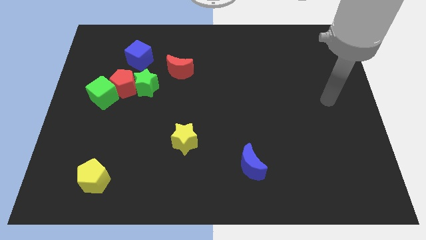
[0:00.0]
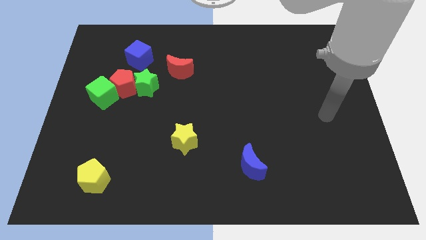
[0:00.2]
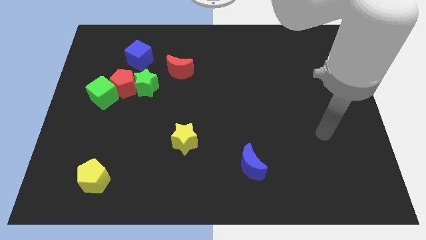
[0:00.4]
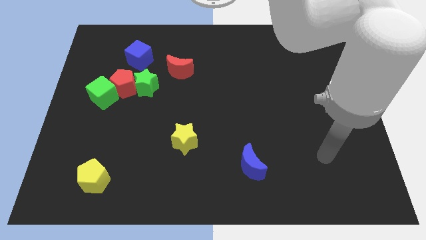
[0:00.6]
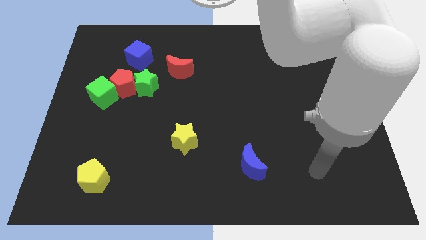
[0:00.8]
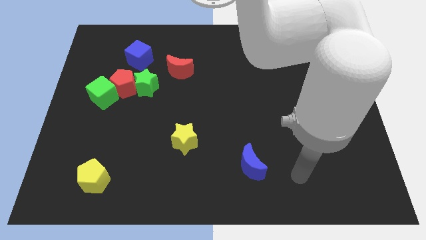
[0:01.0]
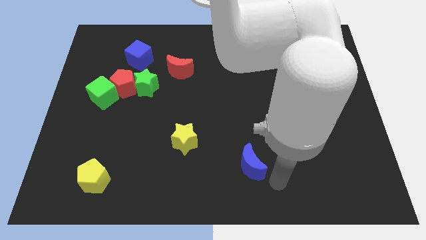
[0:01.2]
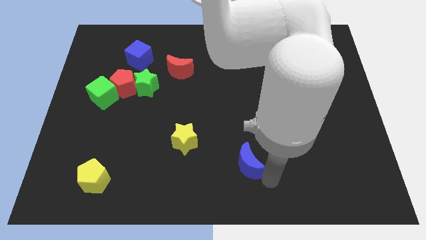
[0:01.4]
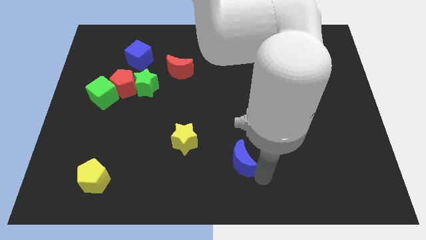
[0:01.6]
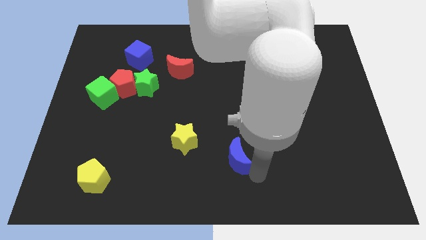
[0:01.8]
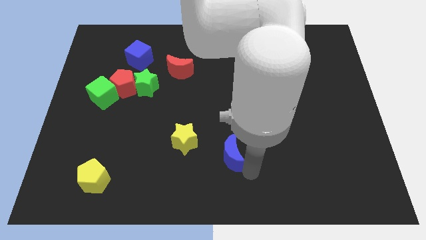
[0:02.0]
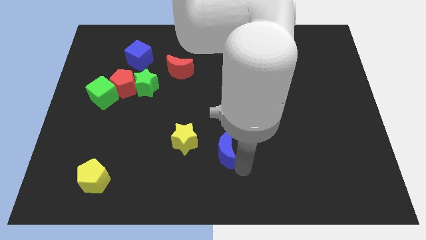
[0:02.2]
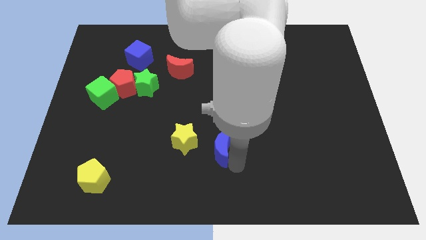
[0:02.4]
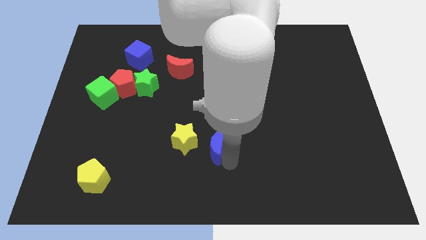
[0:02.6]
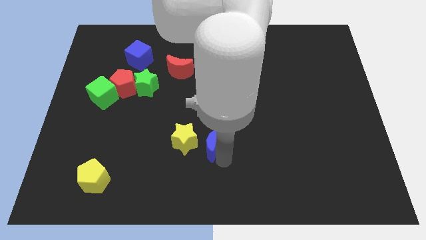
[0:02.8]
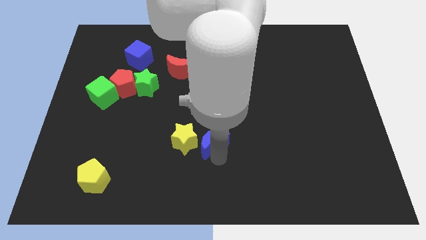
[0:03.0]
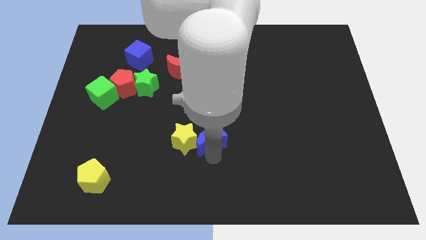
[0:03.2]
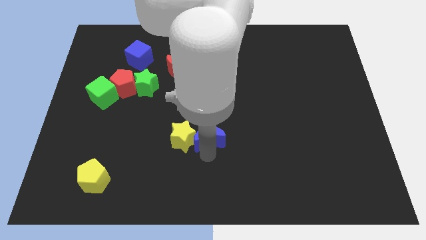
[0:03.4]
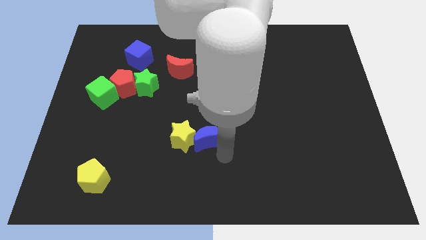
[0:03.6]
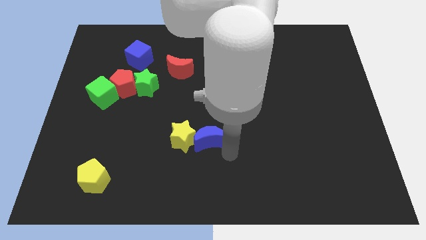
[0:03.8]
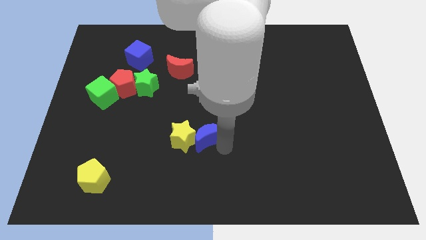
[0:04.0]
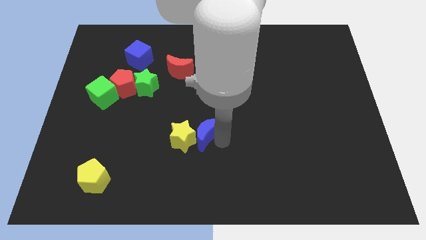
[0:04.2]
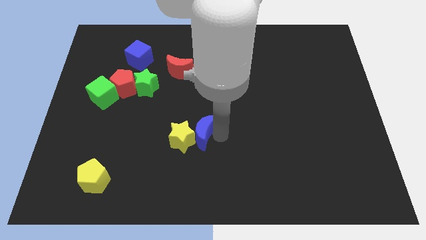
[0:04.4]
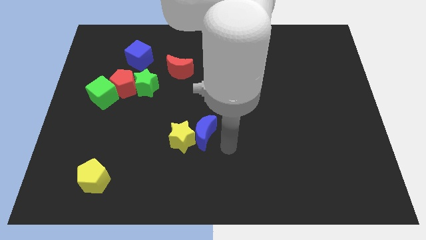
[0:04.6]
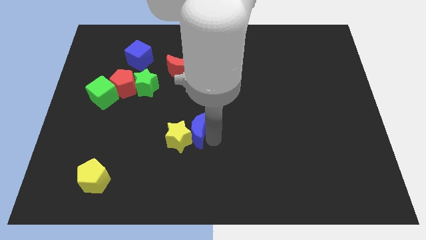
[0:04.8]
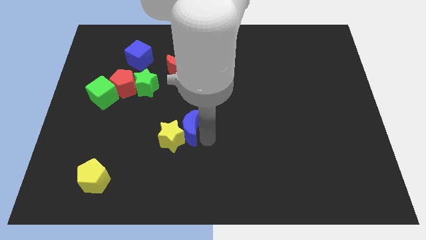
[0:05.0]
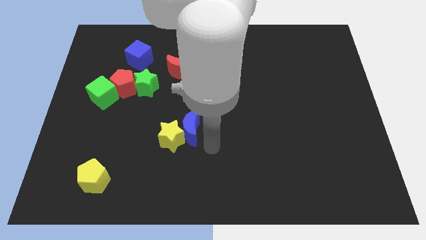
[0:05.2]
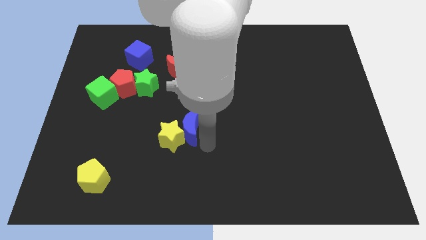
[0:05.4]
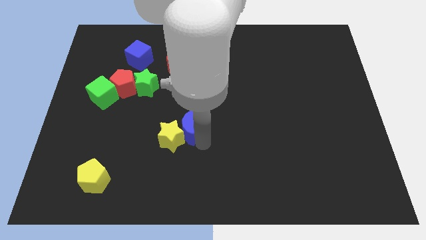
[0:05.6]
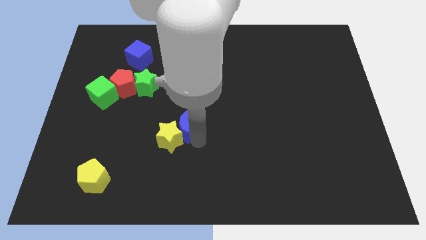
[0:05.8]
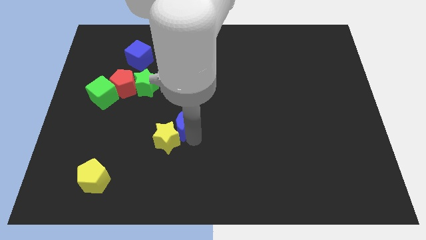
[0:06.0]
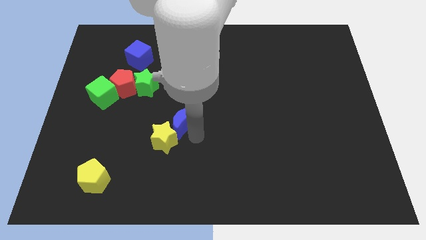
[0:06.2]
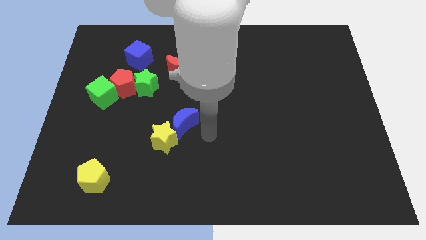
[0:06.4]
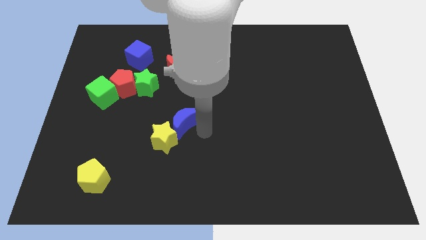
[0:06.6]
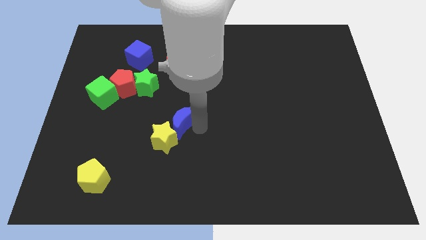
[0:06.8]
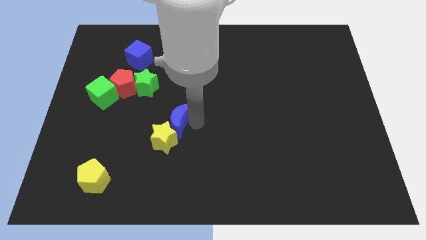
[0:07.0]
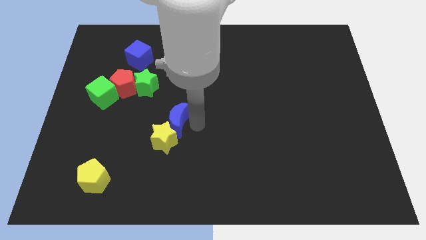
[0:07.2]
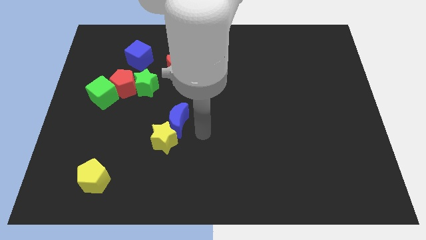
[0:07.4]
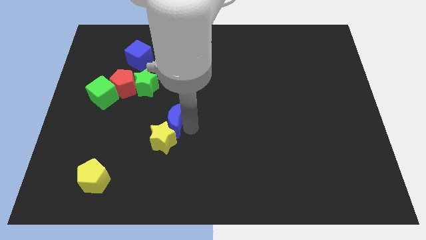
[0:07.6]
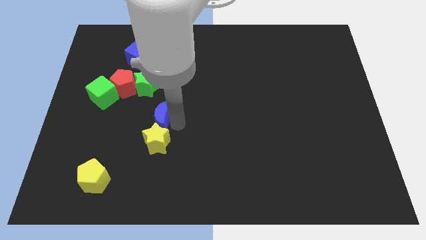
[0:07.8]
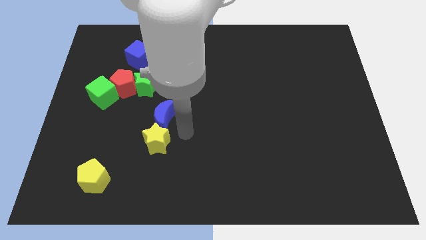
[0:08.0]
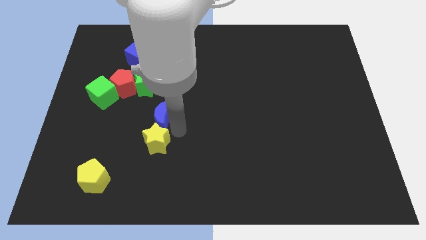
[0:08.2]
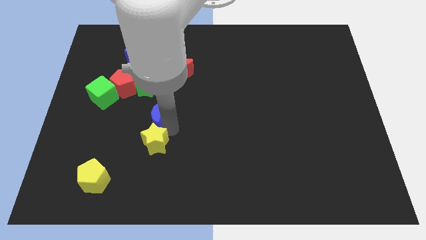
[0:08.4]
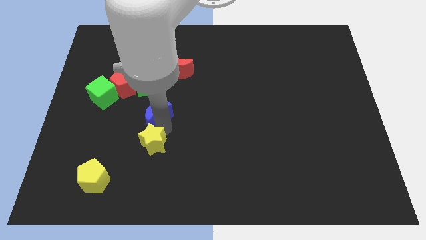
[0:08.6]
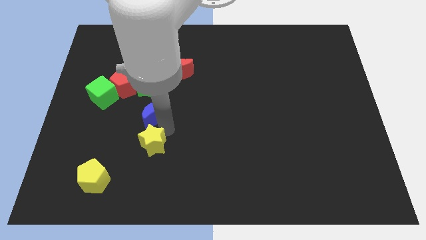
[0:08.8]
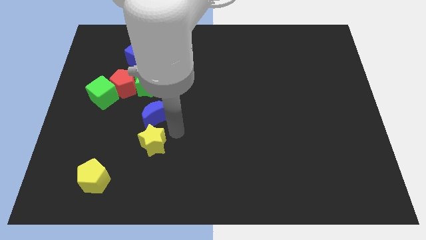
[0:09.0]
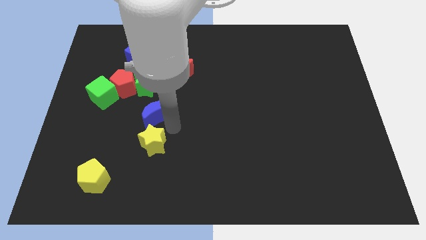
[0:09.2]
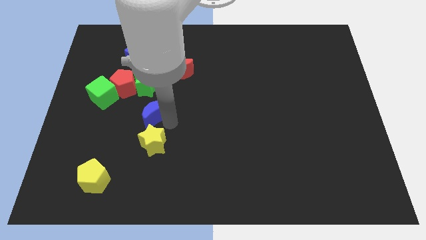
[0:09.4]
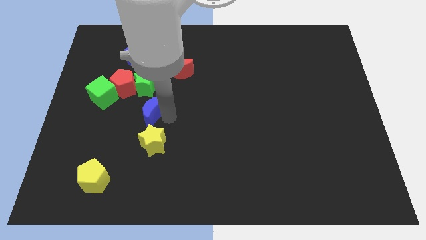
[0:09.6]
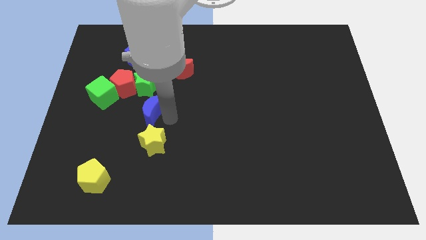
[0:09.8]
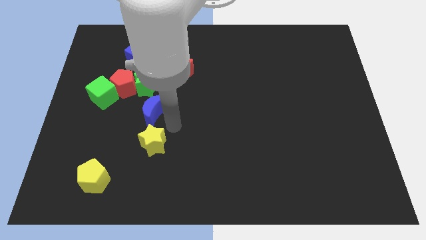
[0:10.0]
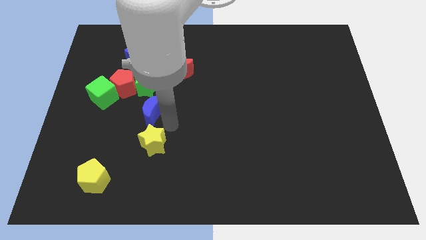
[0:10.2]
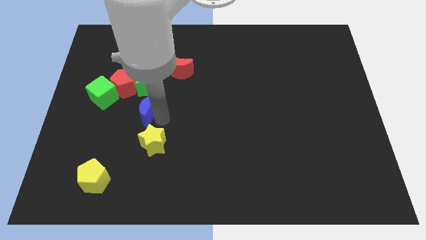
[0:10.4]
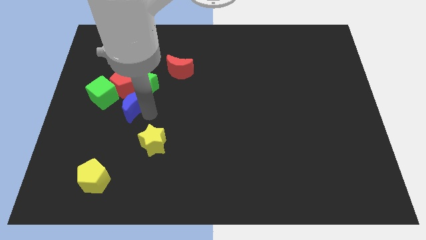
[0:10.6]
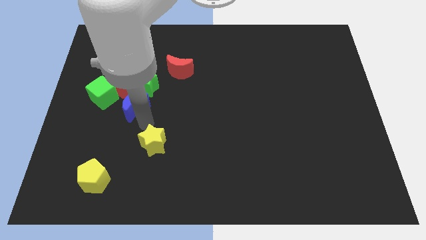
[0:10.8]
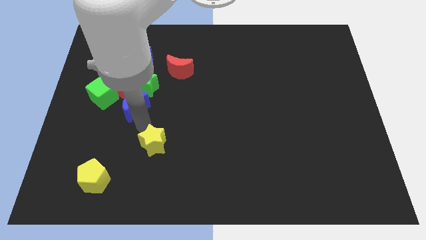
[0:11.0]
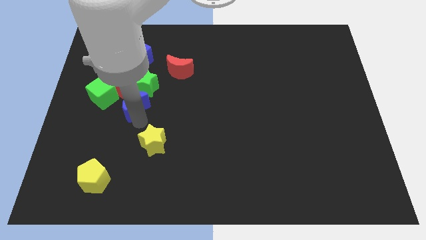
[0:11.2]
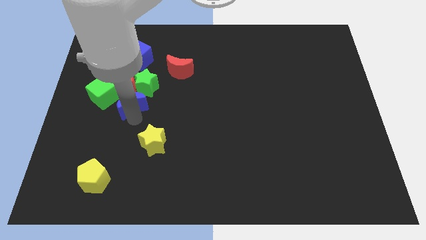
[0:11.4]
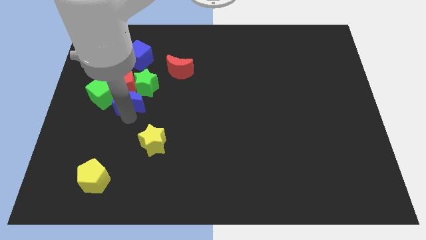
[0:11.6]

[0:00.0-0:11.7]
slide the blue moon next to the red pentagon

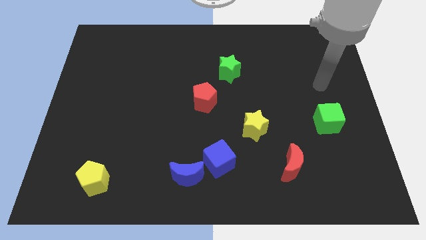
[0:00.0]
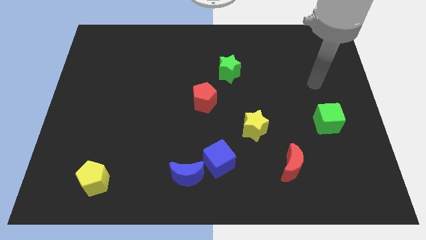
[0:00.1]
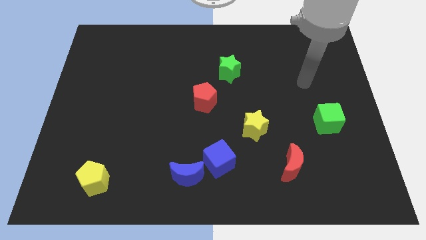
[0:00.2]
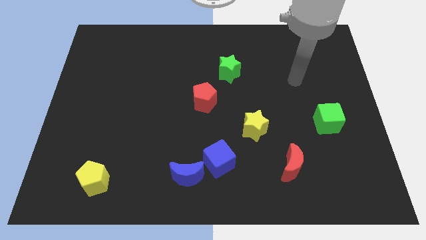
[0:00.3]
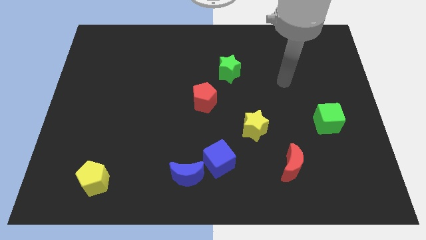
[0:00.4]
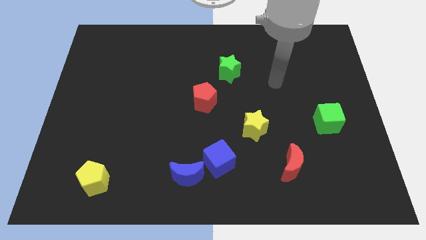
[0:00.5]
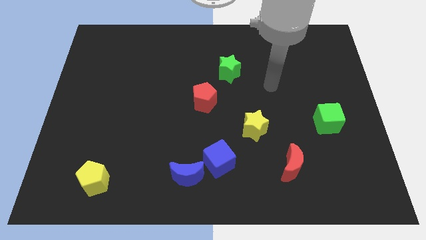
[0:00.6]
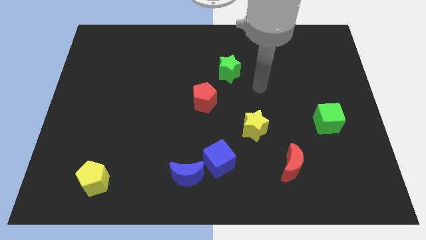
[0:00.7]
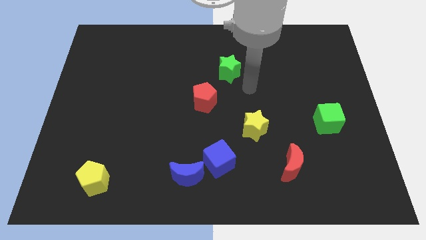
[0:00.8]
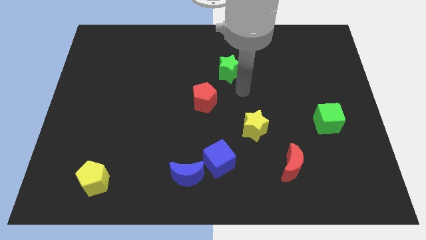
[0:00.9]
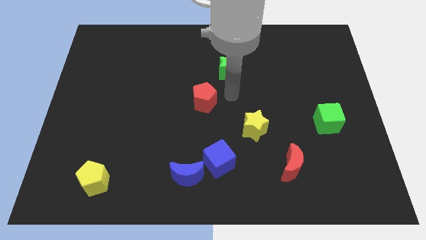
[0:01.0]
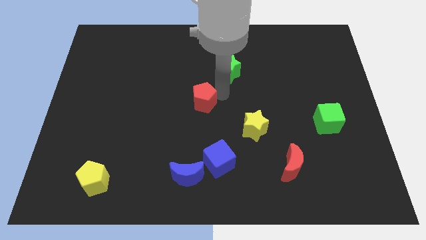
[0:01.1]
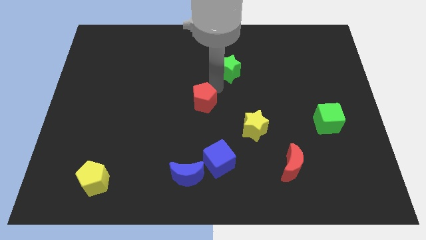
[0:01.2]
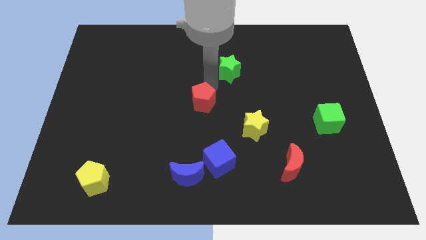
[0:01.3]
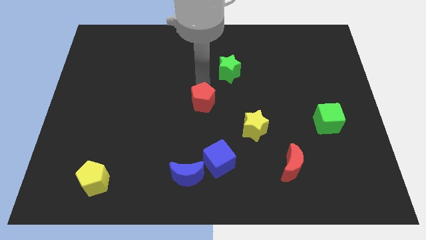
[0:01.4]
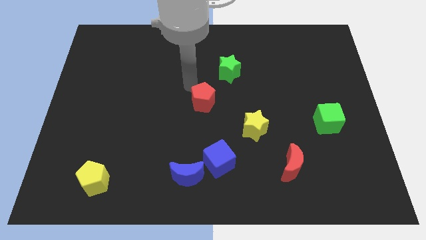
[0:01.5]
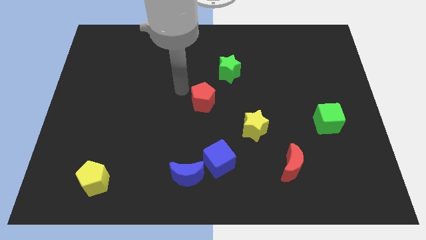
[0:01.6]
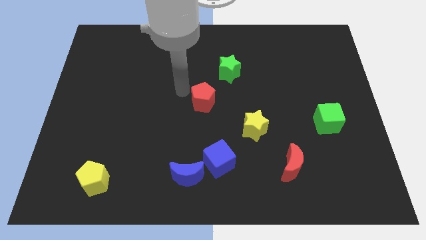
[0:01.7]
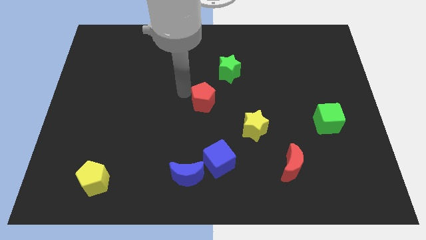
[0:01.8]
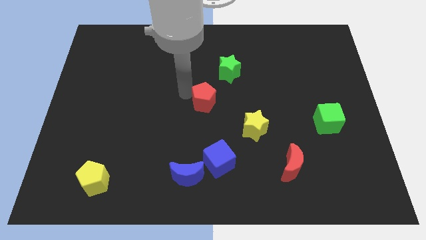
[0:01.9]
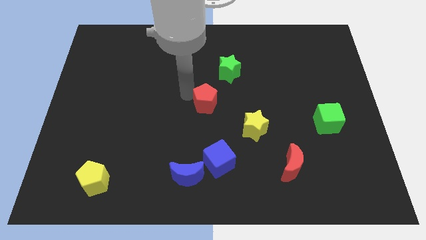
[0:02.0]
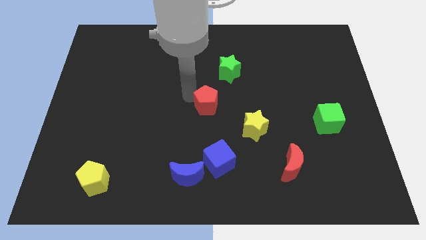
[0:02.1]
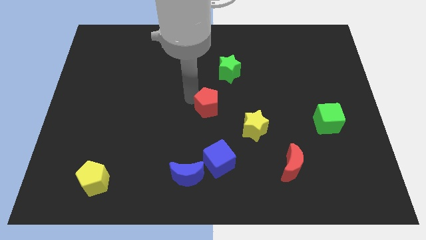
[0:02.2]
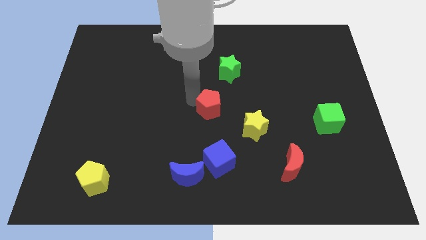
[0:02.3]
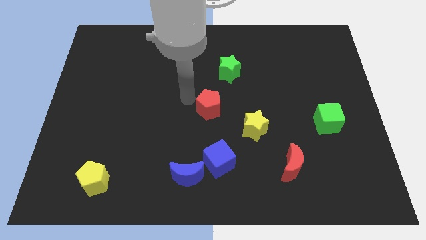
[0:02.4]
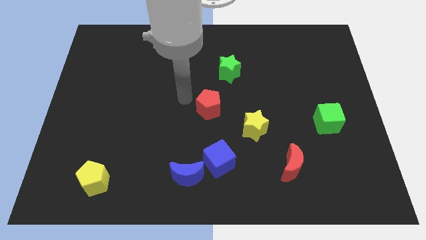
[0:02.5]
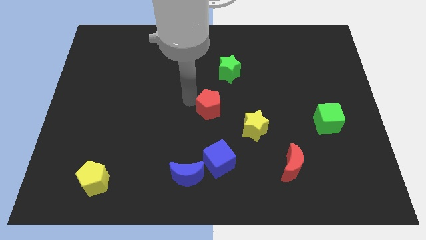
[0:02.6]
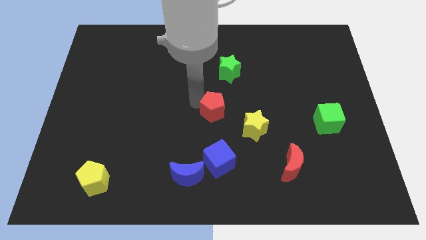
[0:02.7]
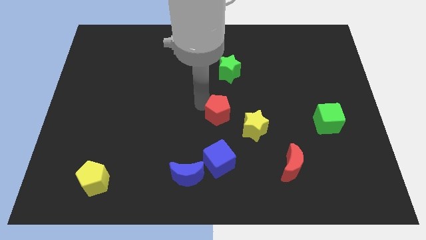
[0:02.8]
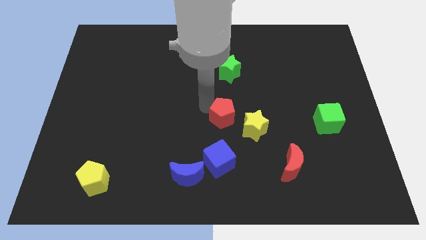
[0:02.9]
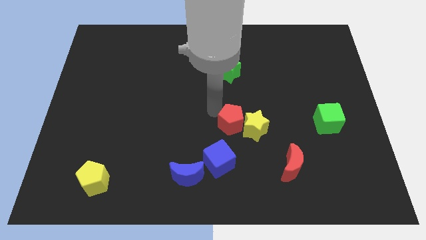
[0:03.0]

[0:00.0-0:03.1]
slide the red pentagon next to the yellow star
